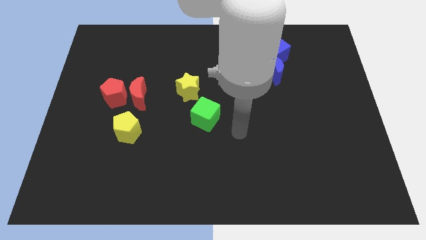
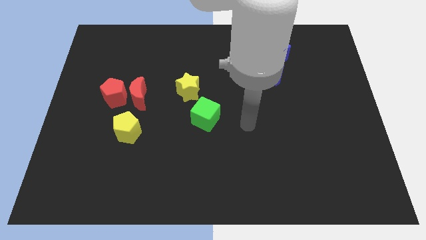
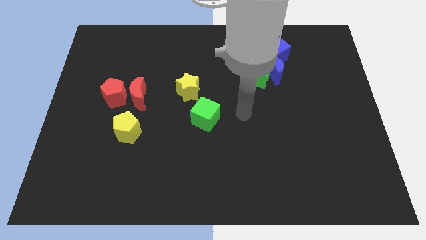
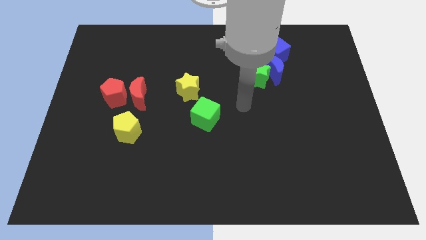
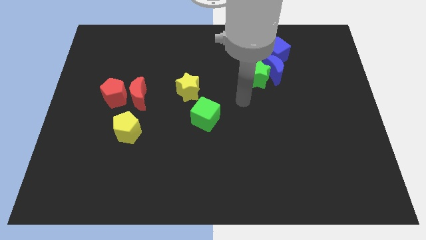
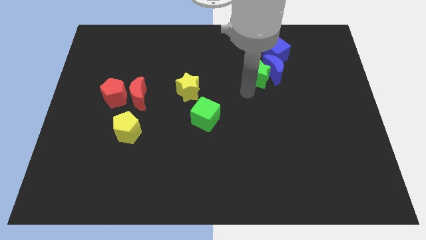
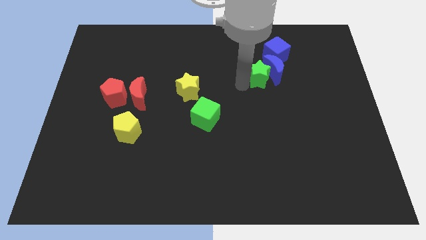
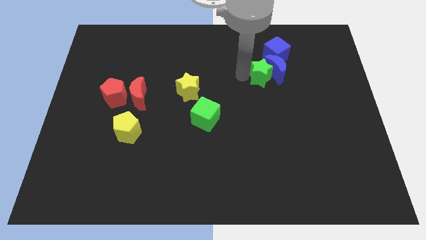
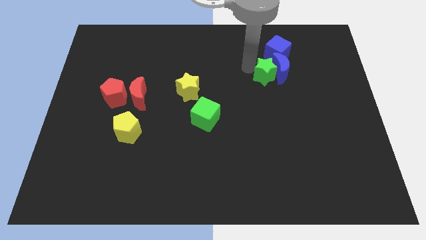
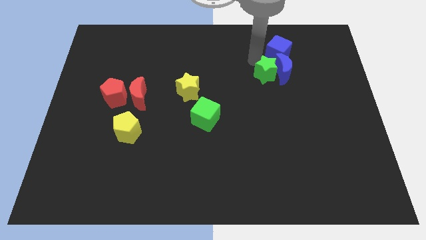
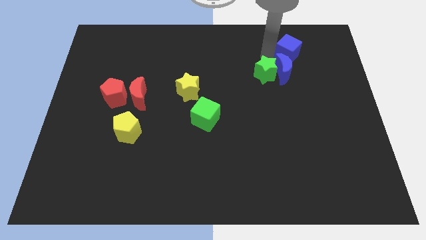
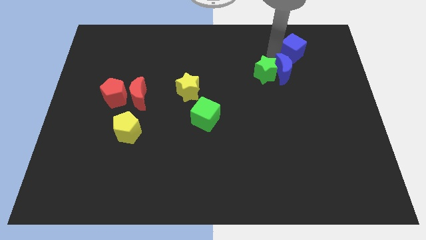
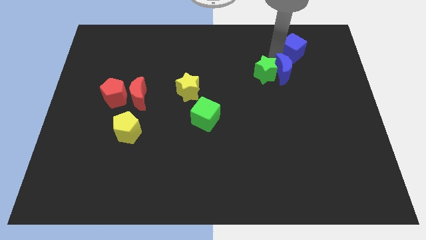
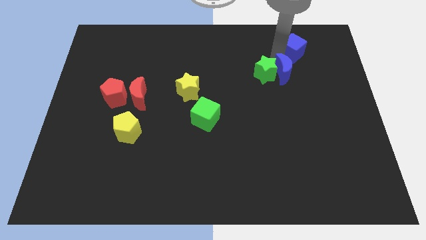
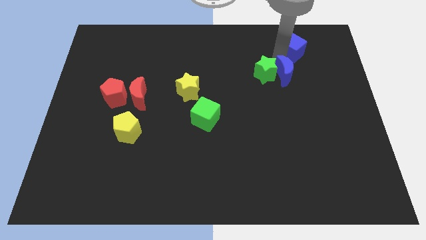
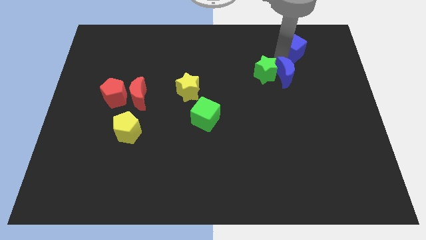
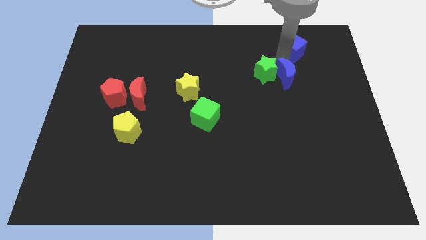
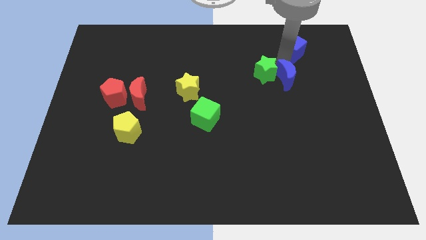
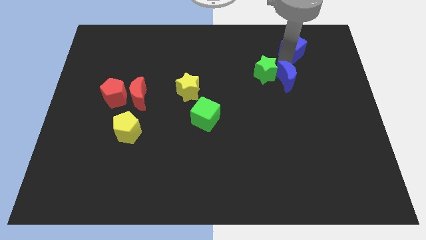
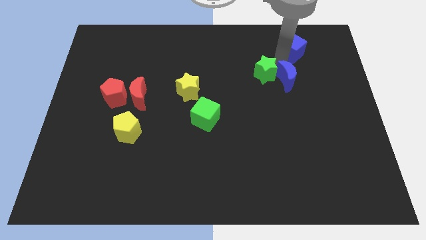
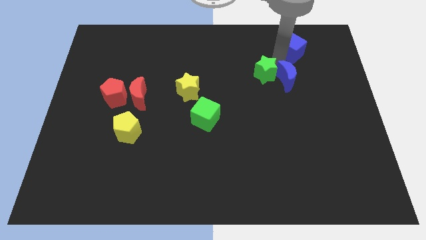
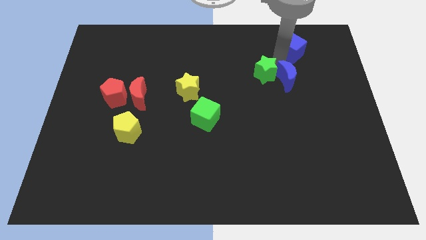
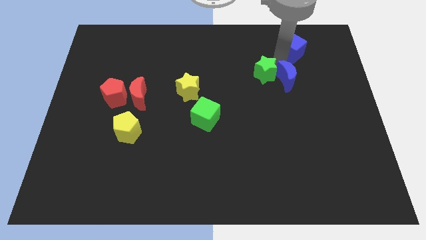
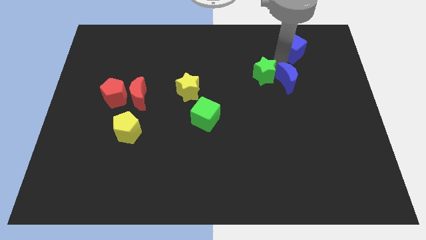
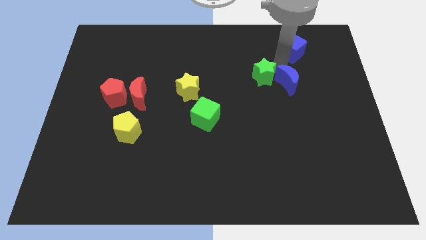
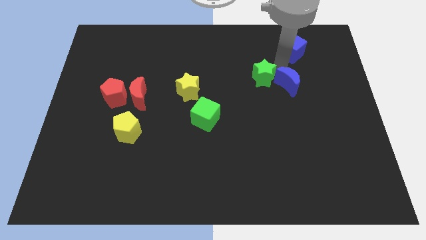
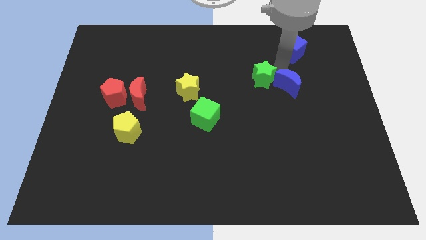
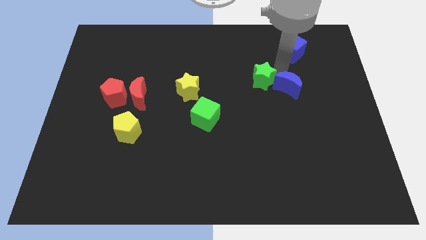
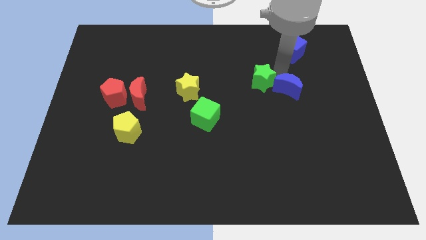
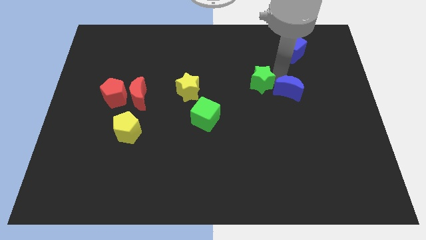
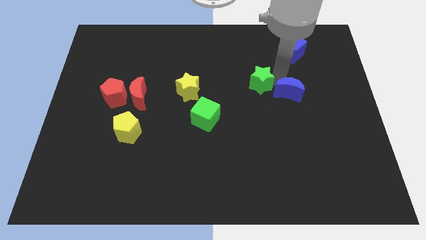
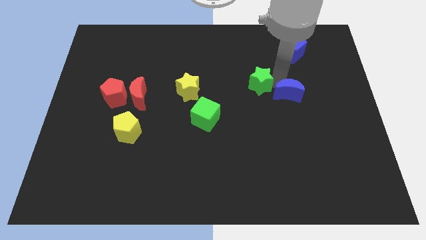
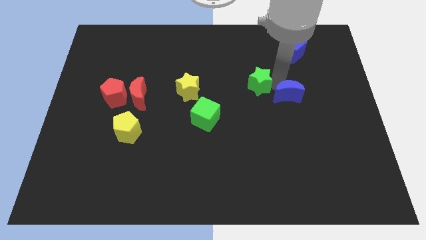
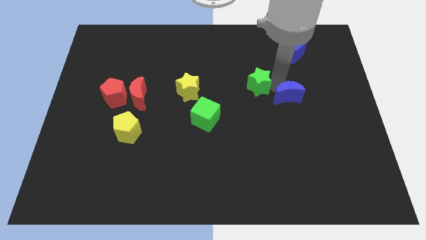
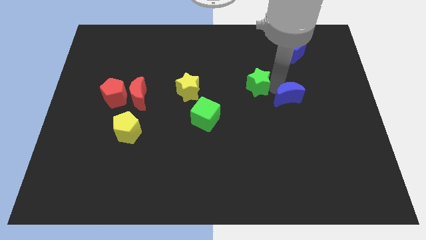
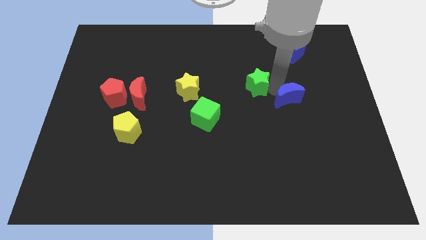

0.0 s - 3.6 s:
move the blue moon away from the green star and blue cube

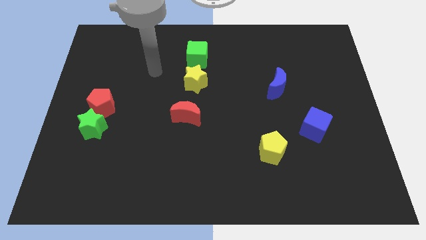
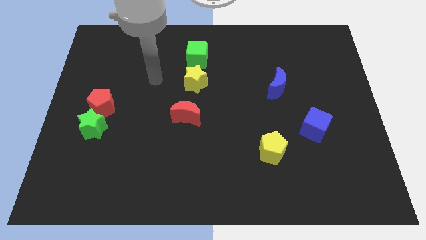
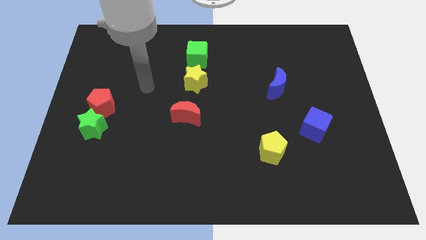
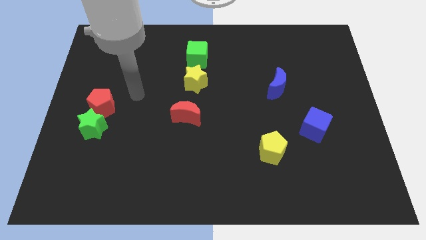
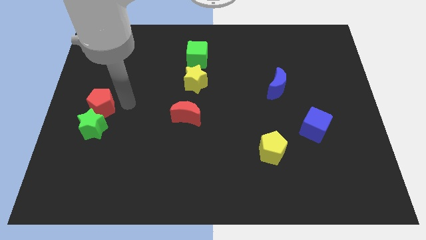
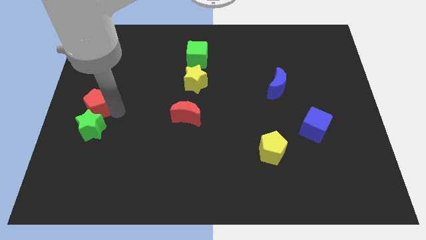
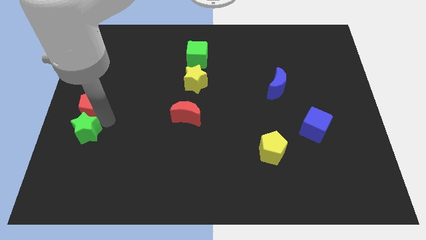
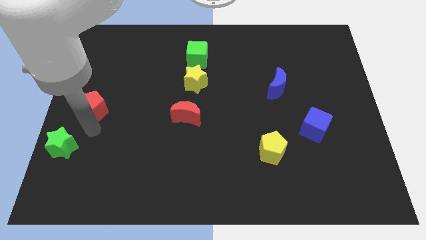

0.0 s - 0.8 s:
pull the red pentagon apart from the green star

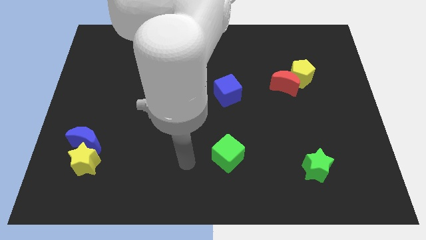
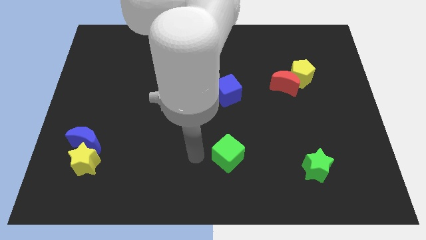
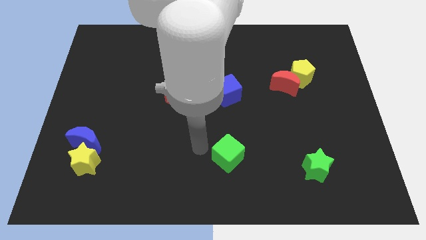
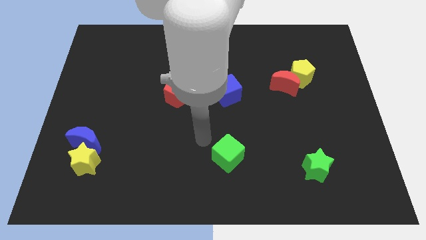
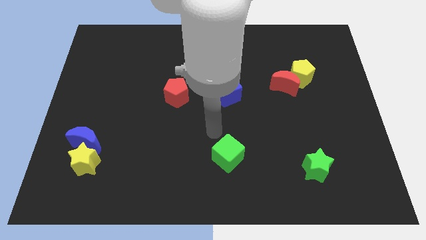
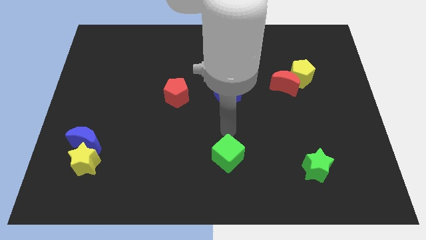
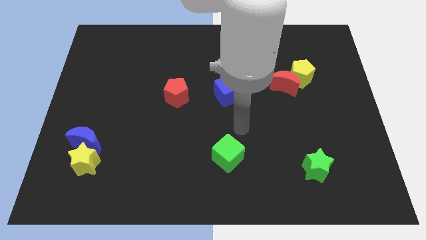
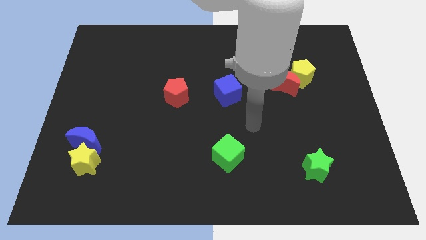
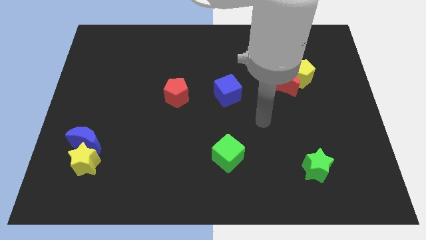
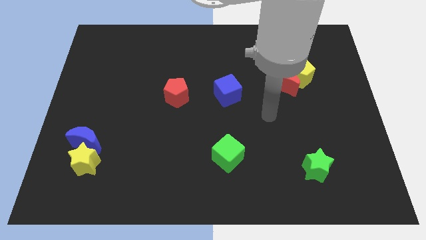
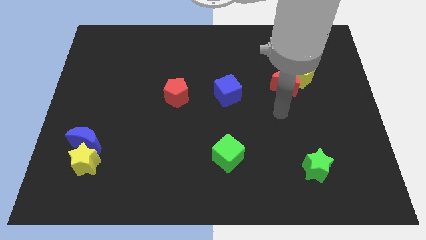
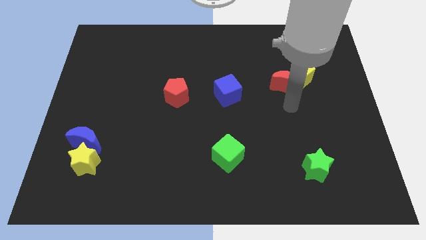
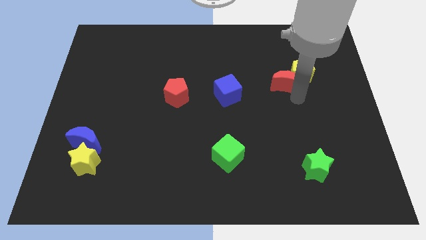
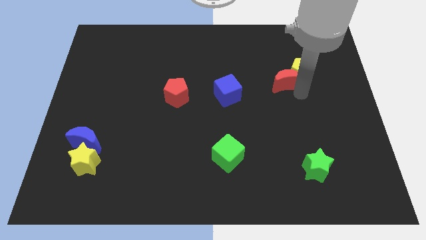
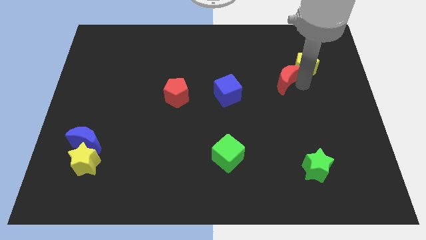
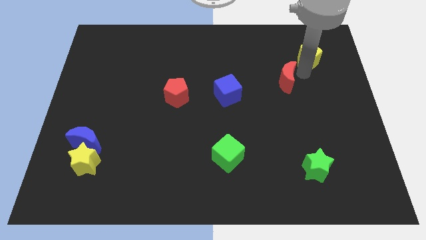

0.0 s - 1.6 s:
pull the red moon apart from the yellow pentagon

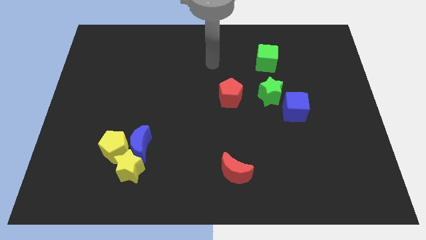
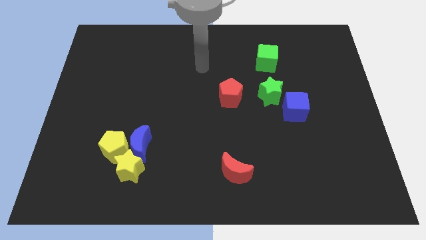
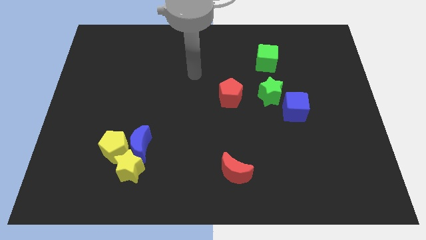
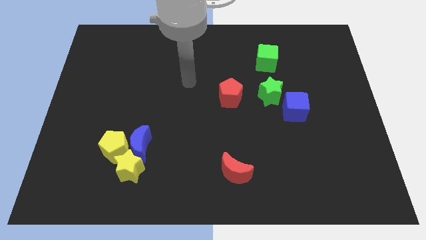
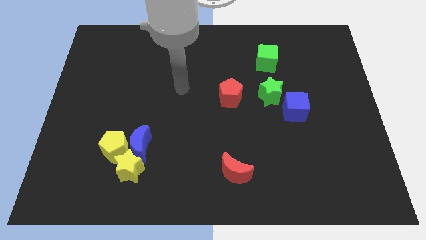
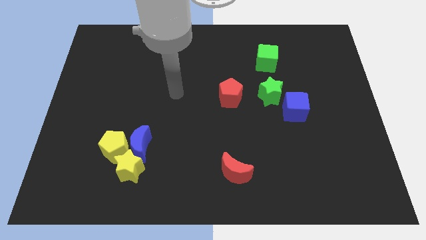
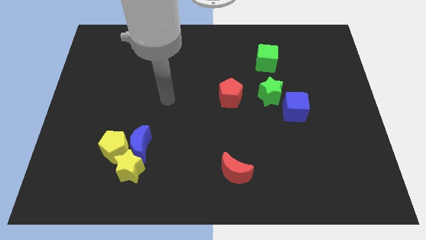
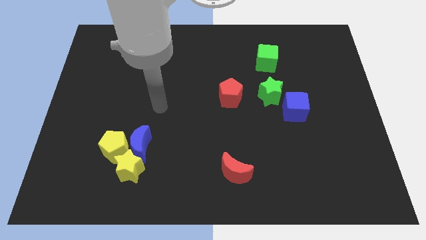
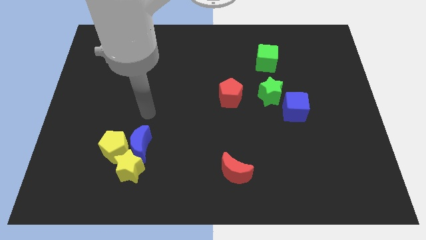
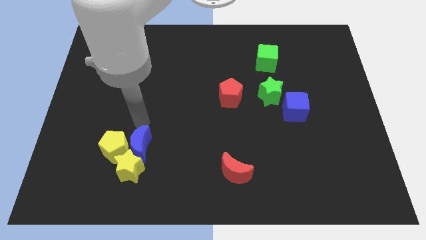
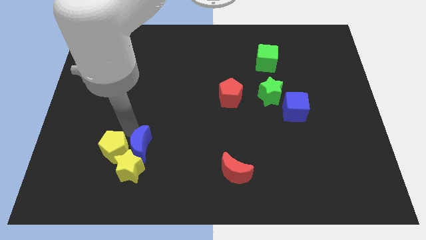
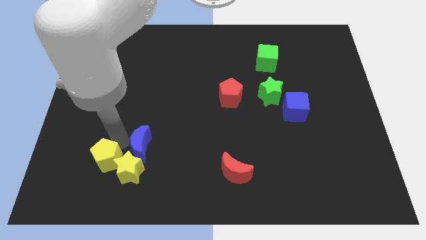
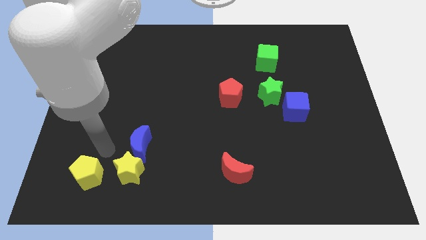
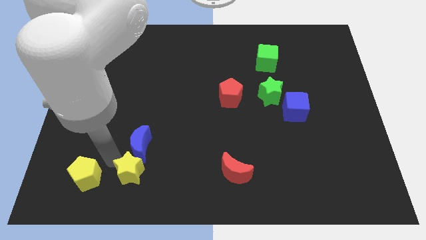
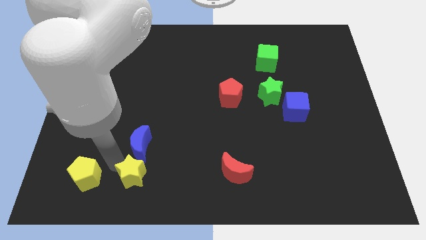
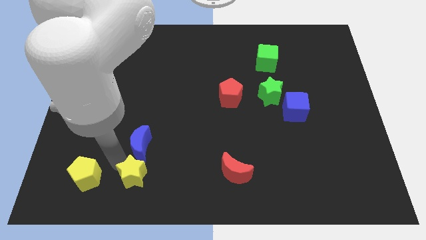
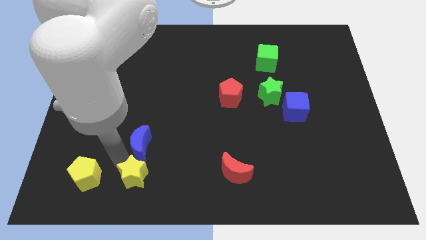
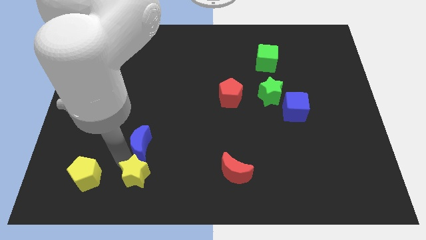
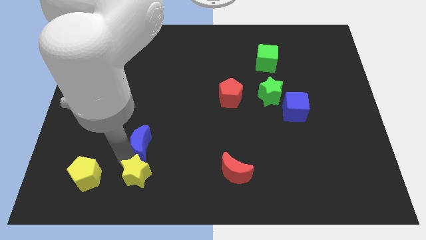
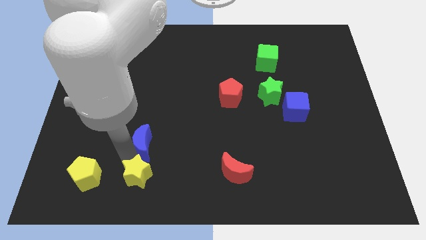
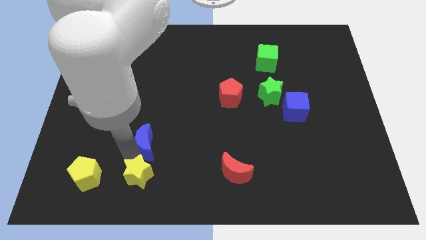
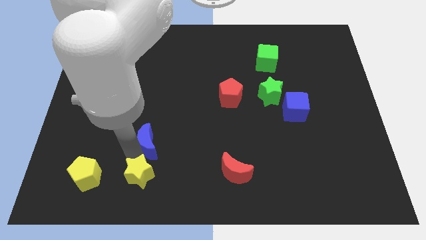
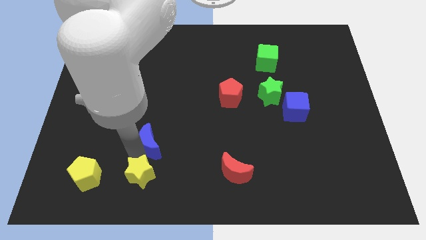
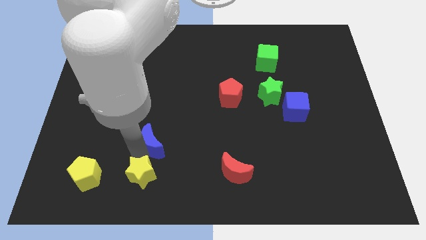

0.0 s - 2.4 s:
move the blue moon away from the yellow pentagon and yellow star

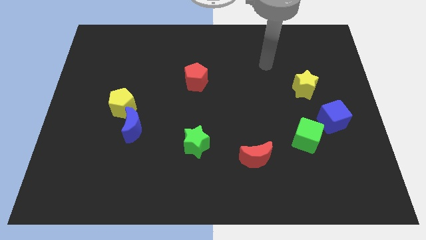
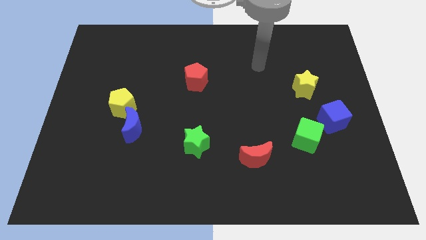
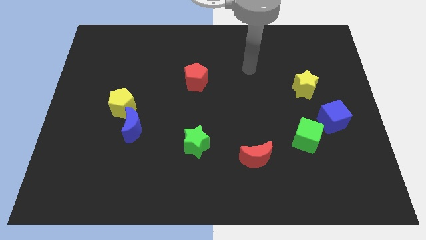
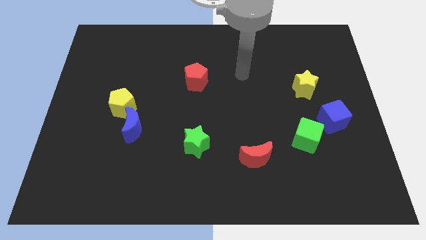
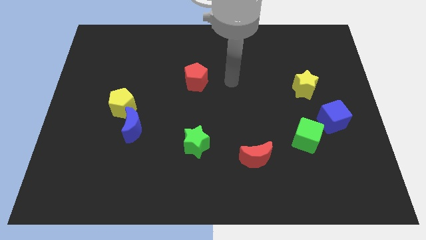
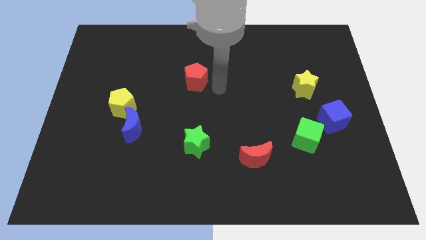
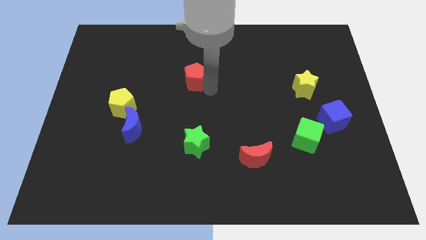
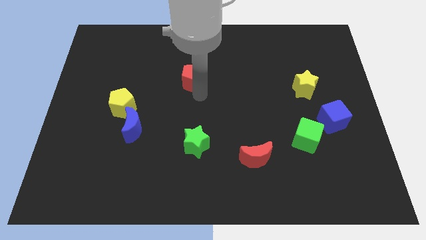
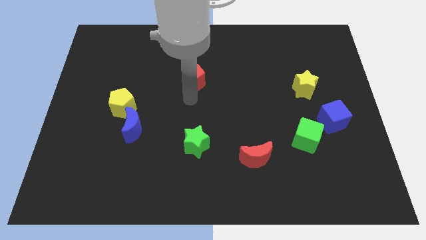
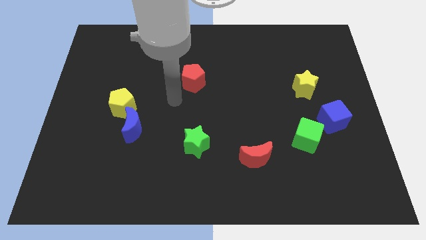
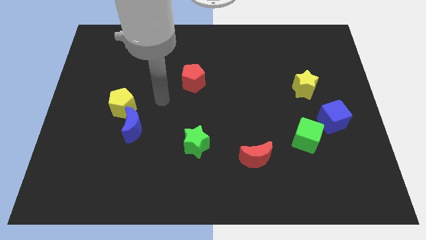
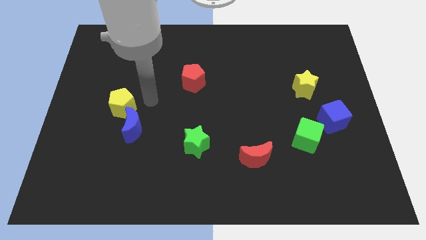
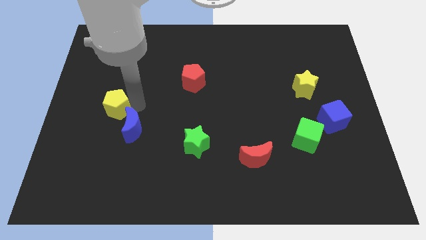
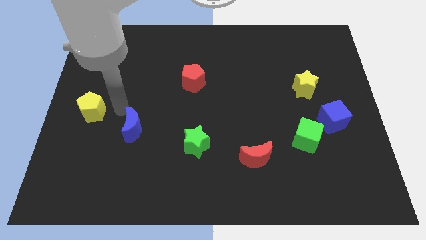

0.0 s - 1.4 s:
move the blue moon away from the yellow pentagon
